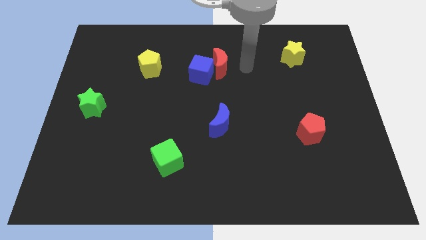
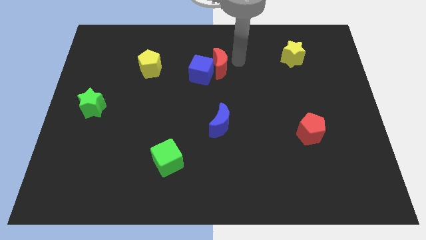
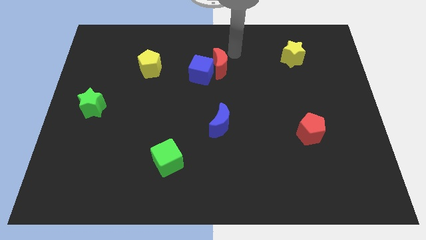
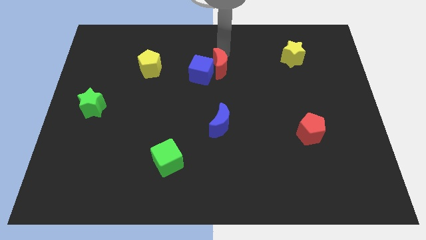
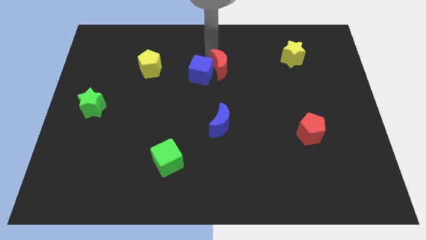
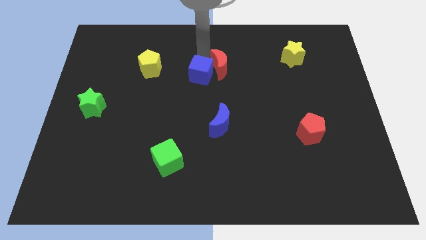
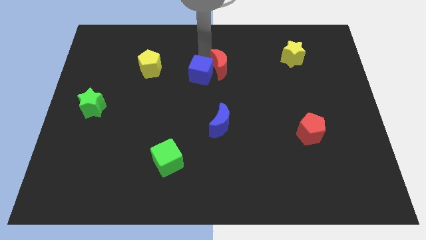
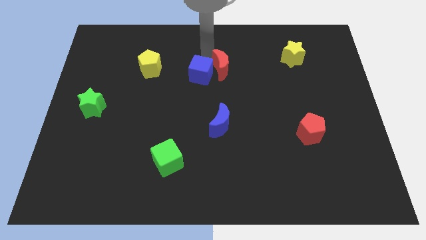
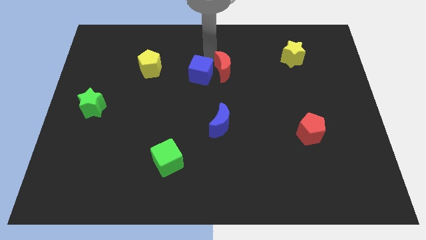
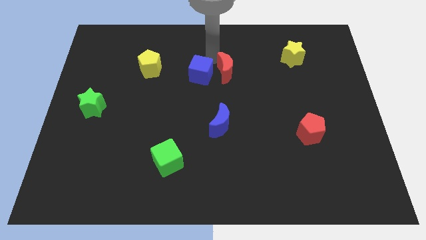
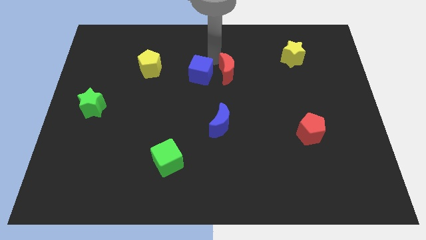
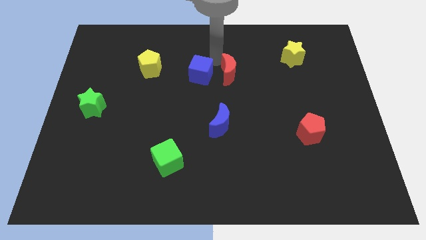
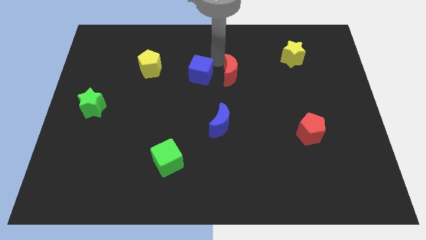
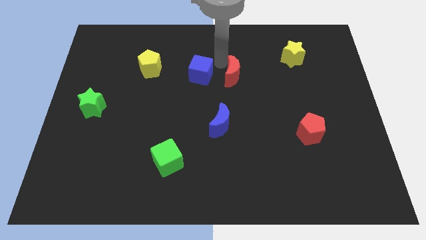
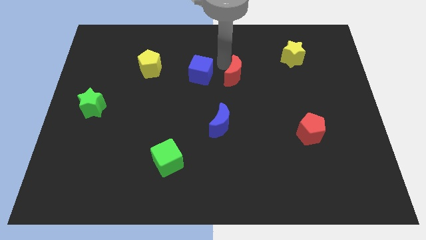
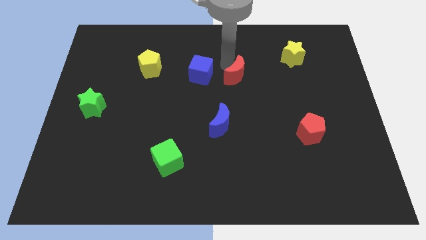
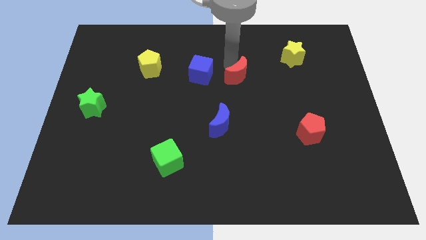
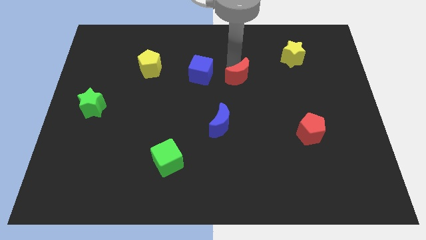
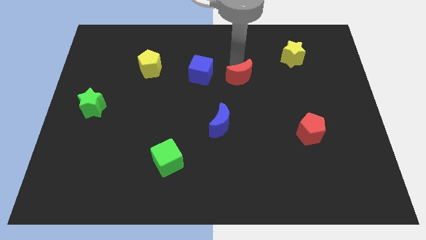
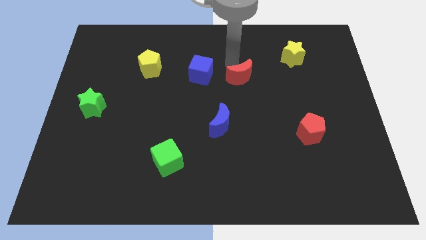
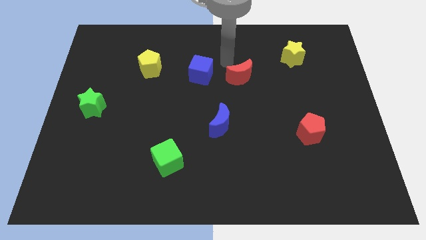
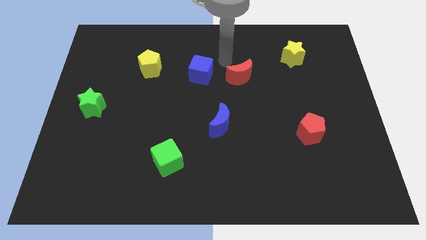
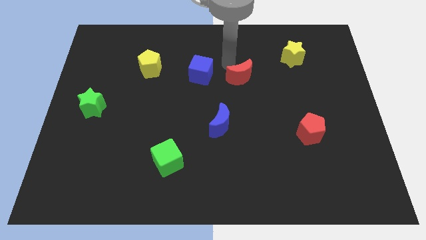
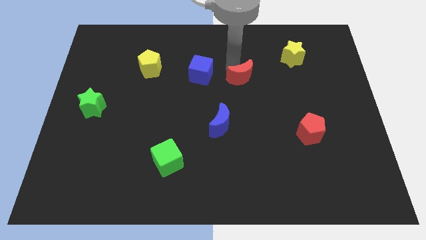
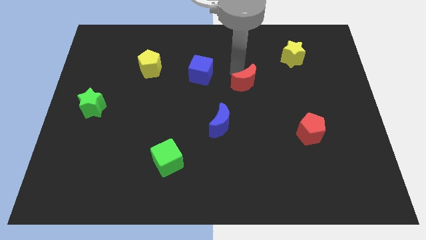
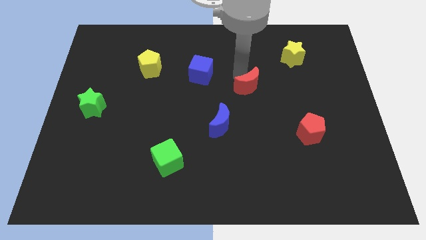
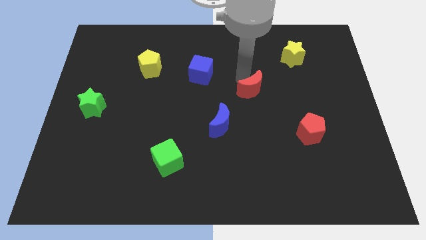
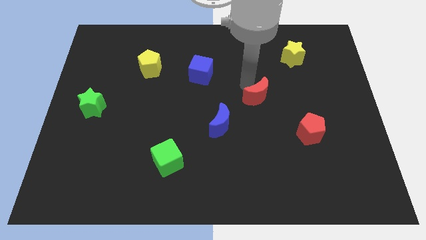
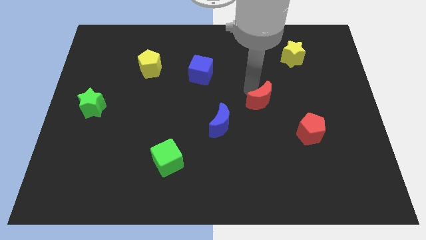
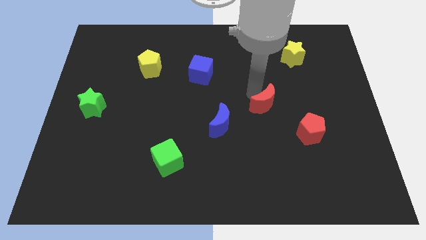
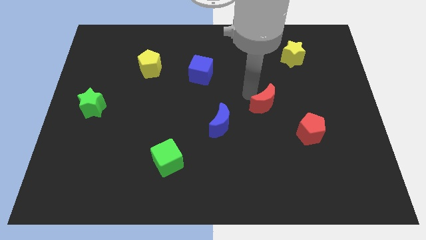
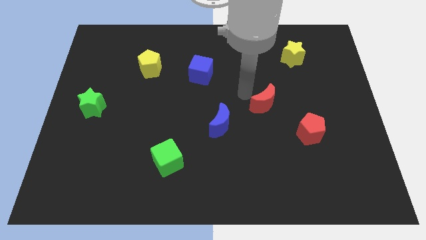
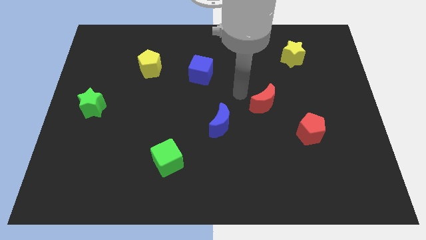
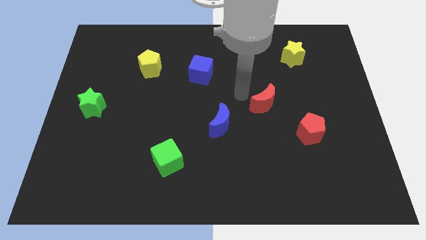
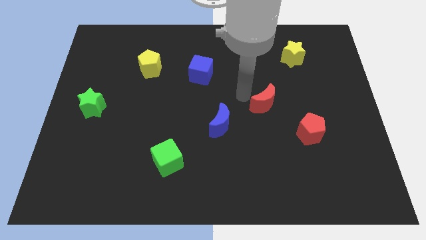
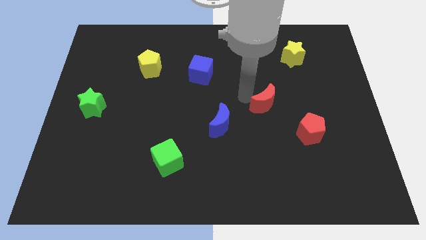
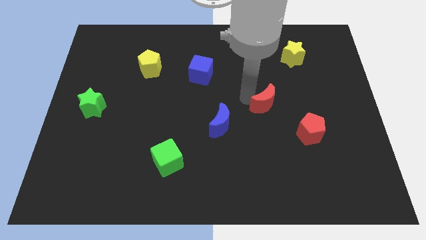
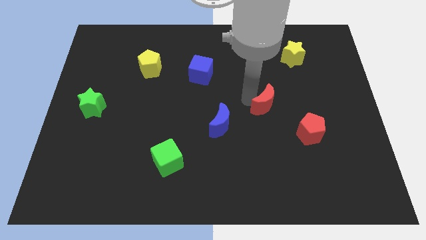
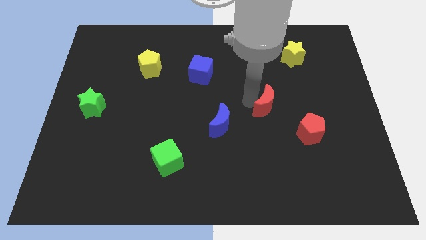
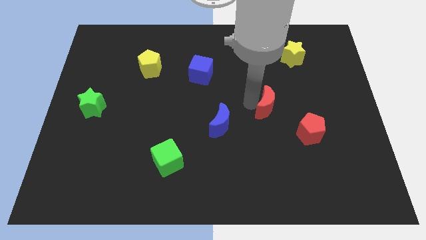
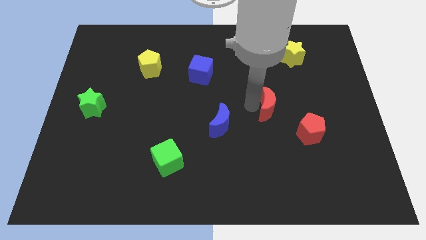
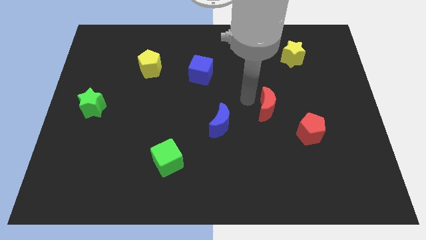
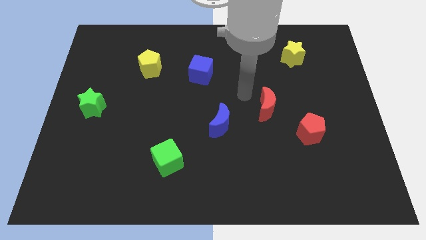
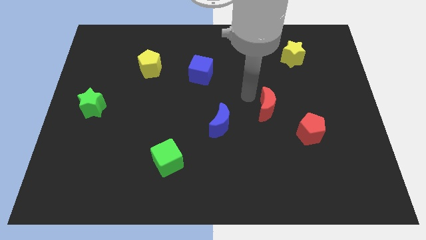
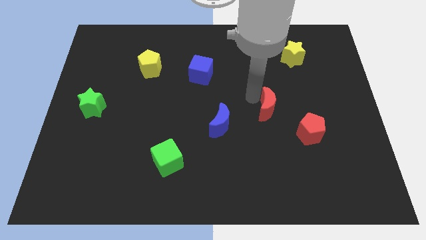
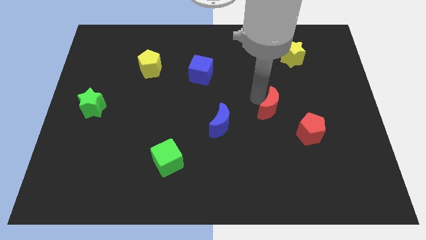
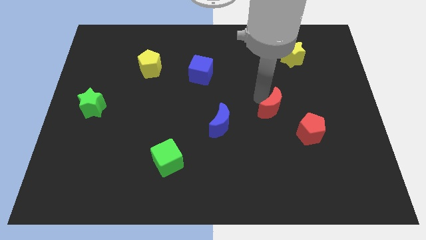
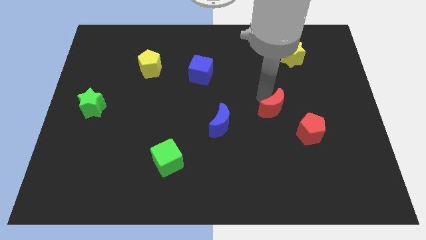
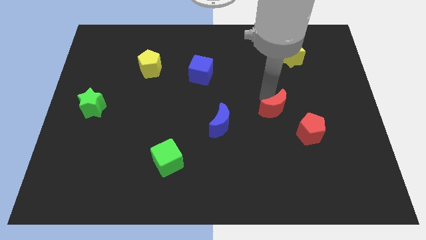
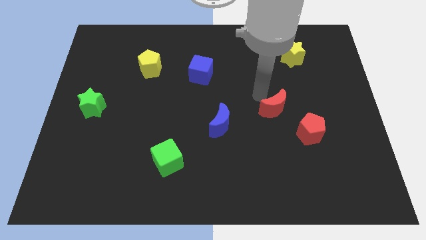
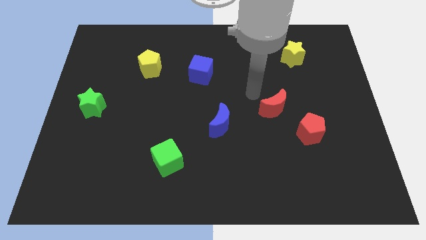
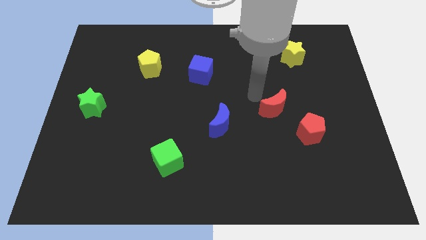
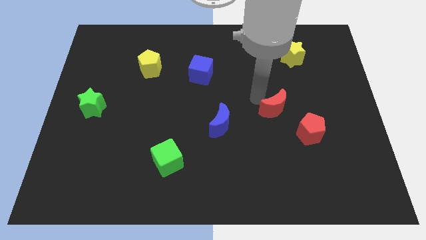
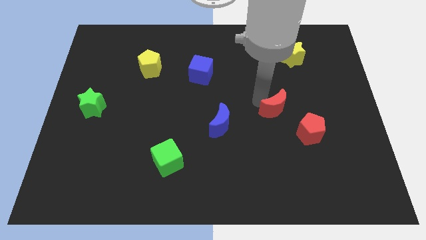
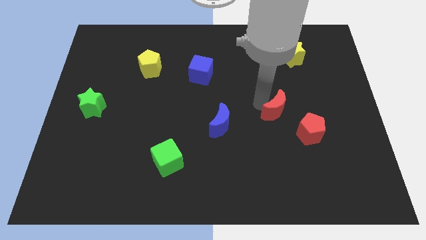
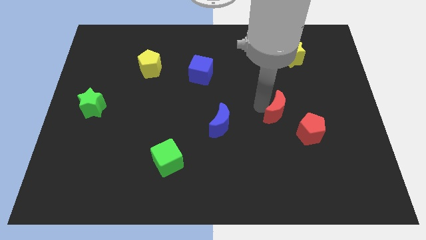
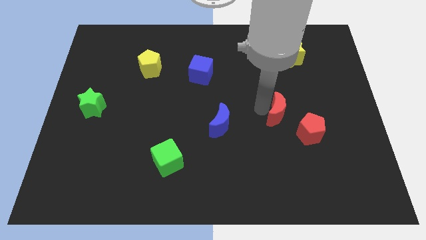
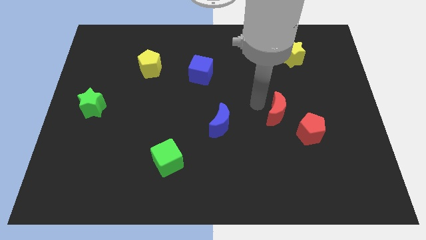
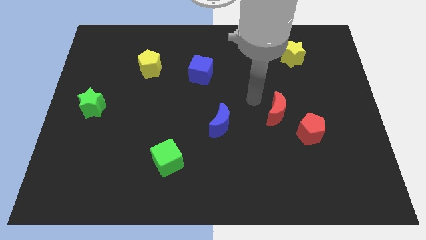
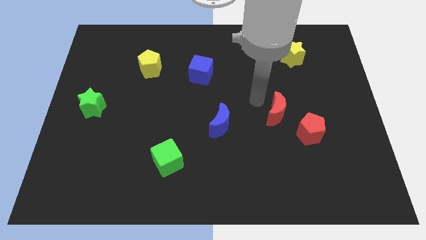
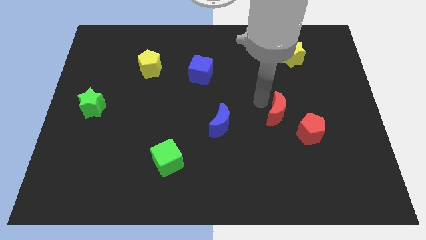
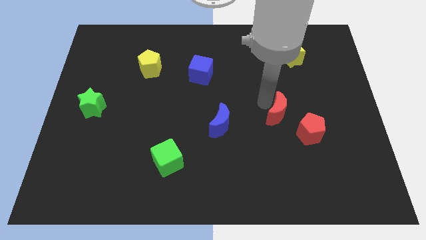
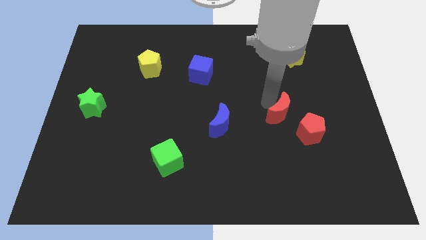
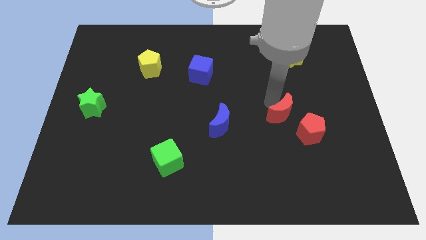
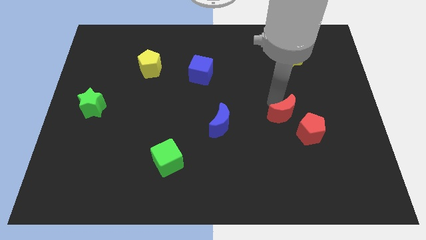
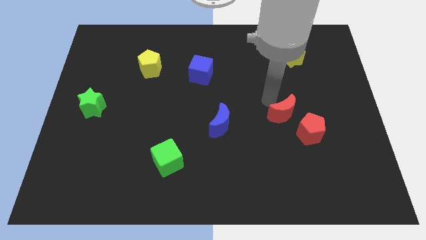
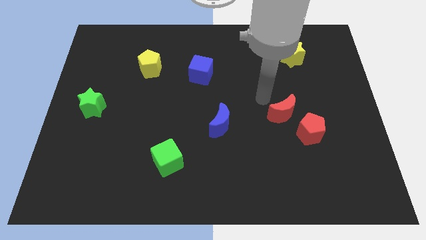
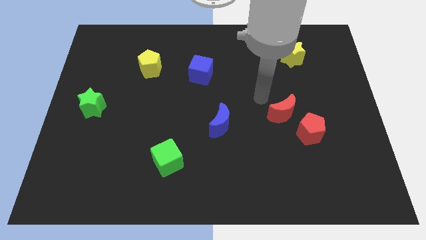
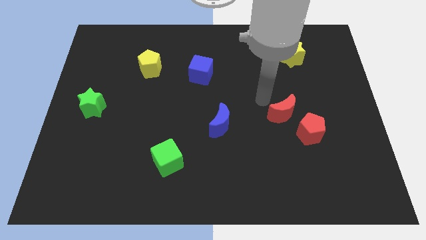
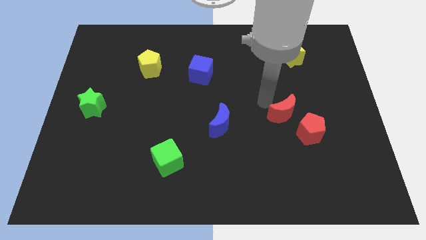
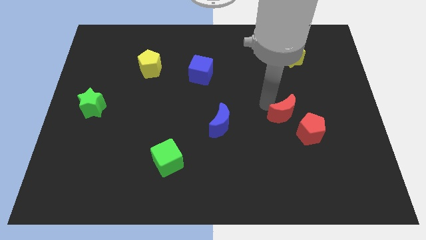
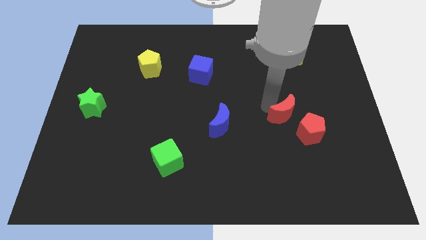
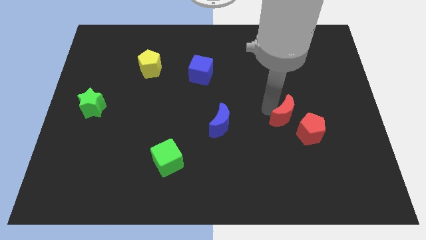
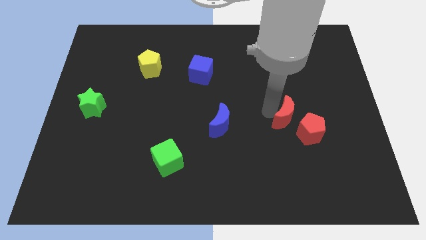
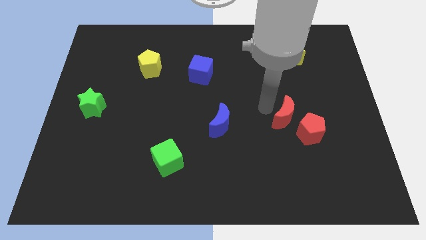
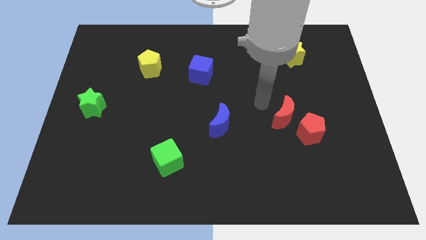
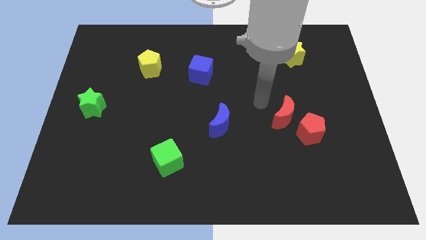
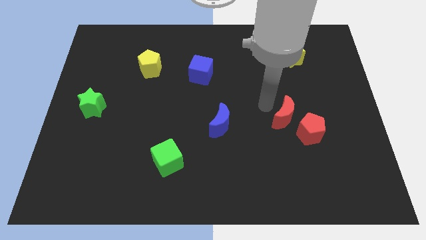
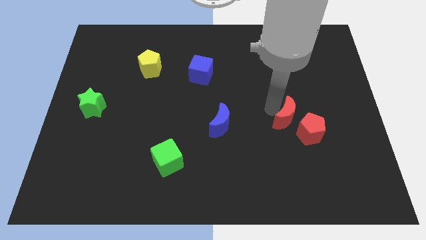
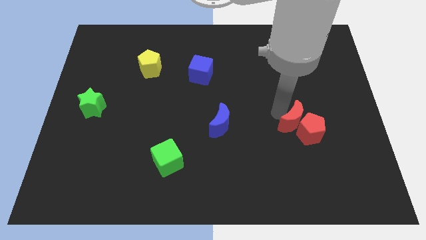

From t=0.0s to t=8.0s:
put the red moon next to the red pentagon
